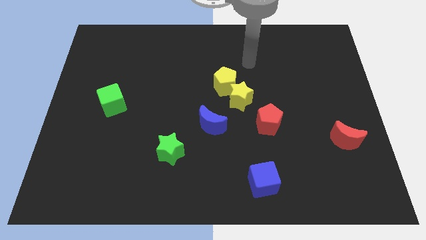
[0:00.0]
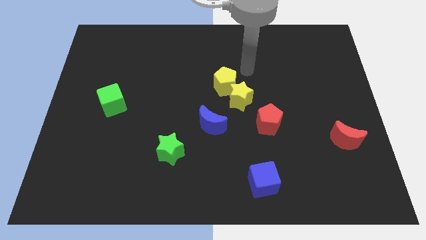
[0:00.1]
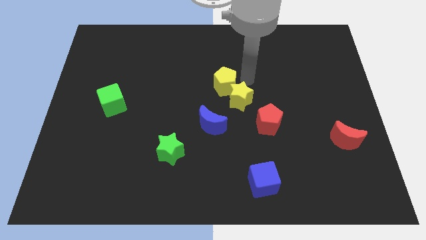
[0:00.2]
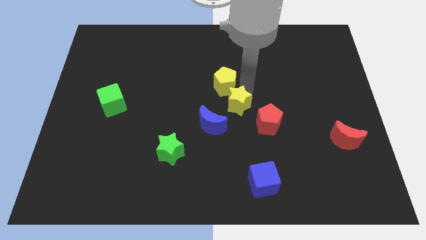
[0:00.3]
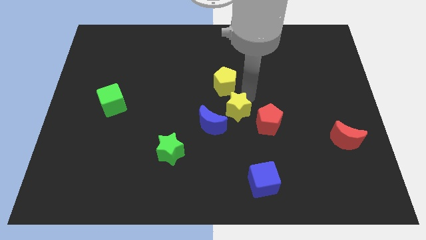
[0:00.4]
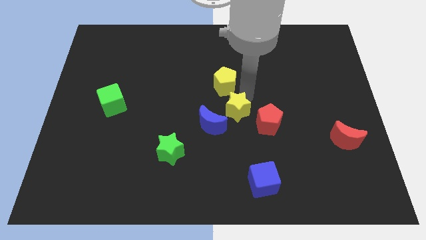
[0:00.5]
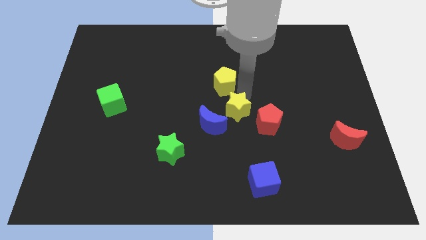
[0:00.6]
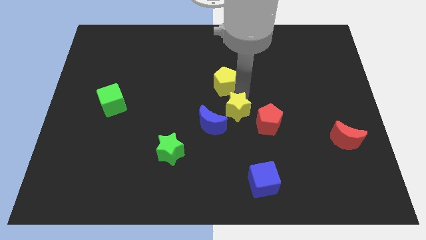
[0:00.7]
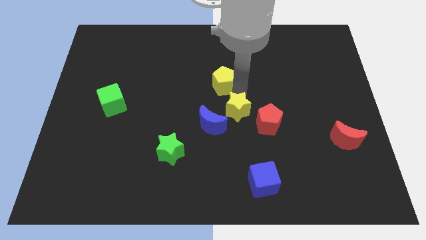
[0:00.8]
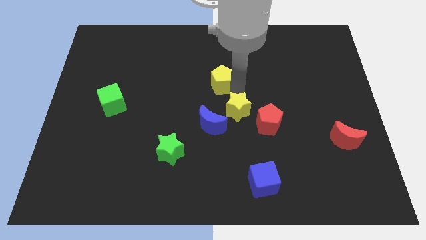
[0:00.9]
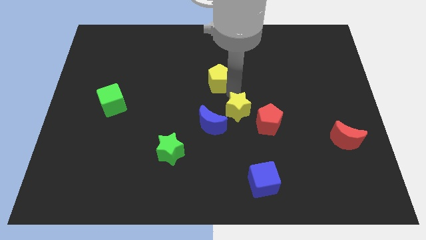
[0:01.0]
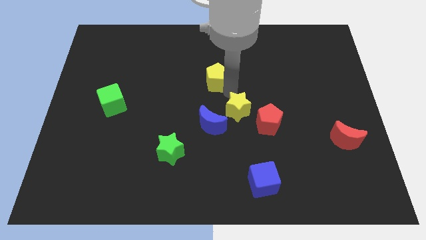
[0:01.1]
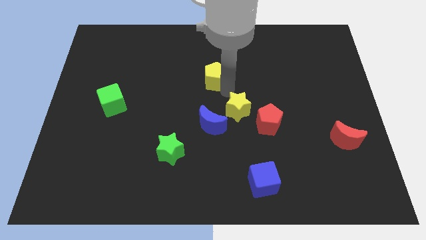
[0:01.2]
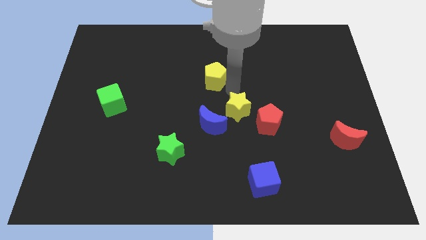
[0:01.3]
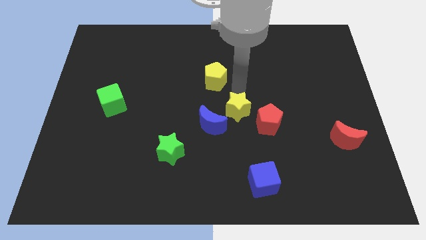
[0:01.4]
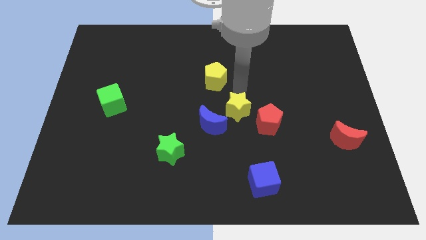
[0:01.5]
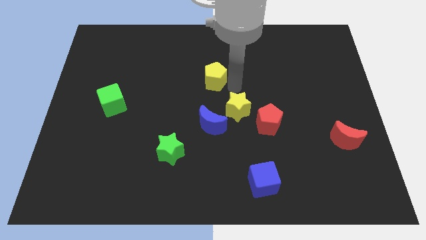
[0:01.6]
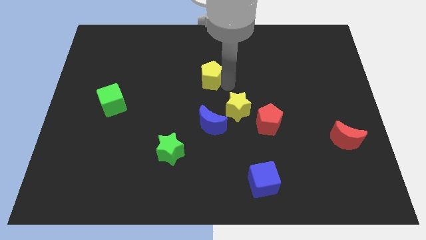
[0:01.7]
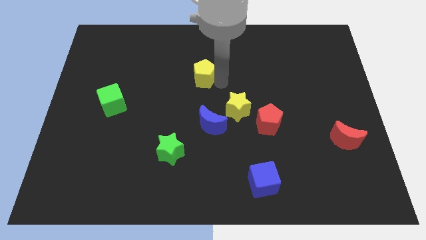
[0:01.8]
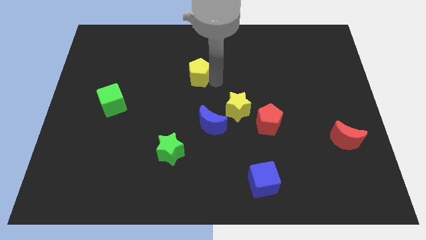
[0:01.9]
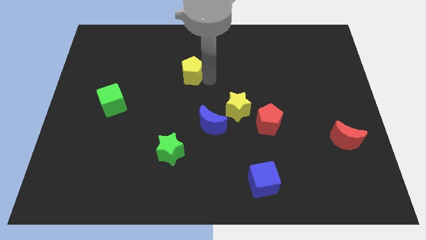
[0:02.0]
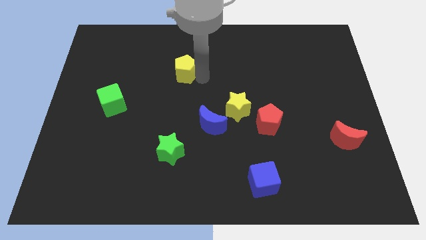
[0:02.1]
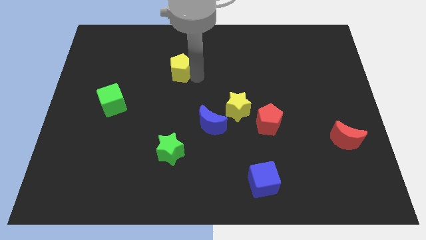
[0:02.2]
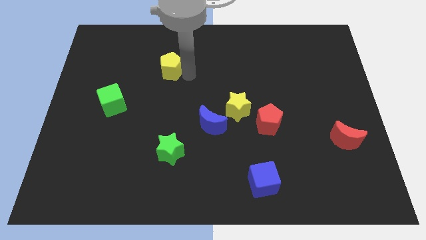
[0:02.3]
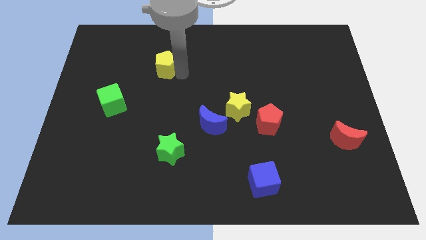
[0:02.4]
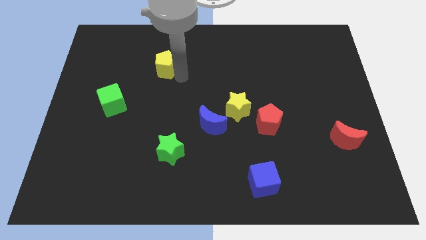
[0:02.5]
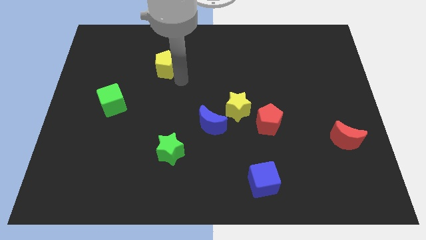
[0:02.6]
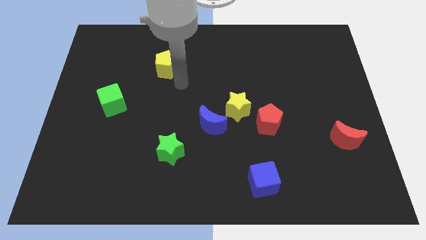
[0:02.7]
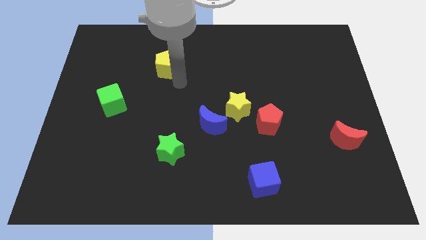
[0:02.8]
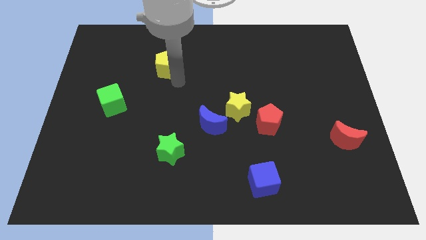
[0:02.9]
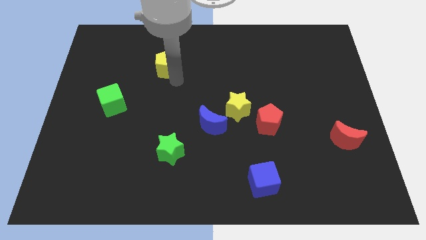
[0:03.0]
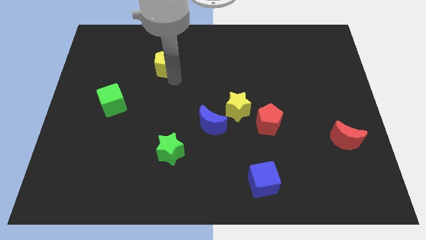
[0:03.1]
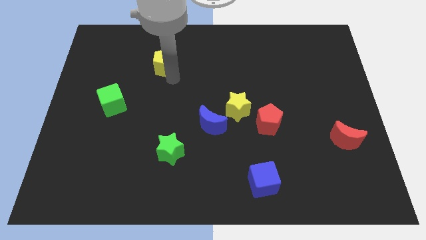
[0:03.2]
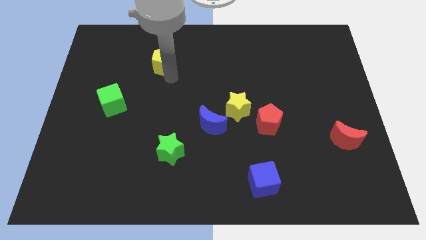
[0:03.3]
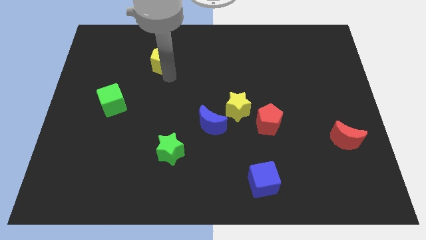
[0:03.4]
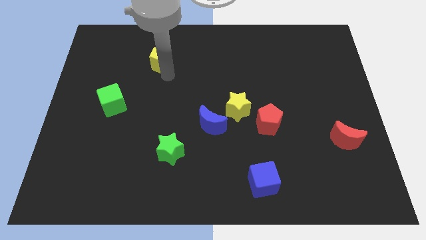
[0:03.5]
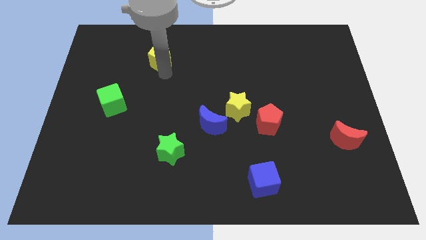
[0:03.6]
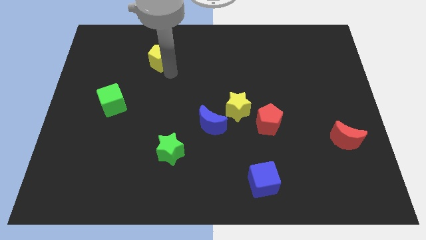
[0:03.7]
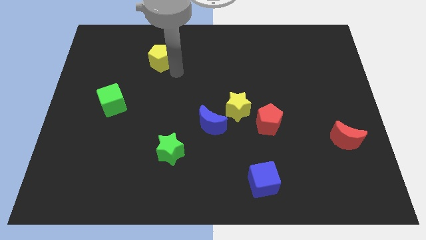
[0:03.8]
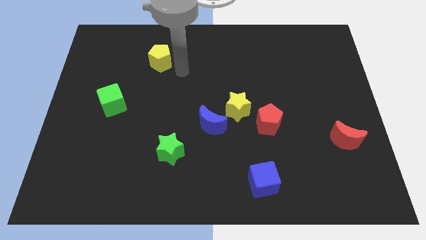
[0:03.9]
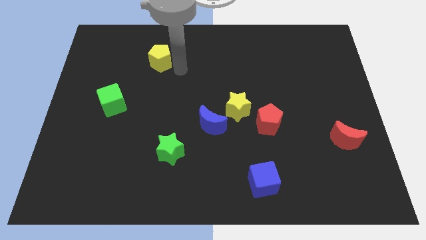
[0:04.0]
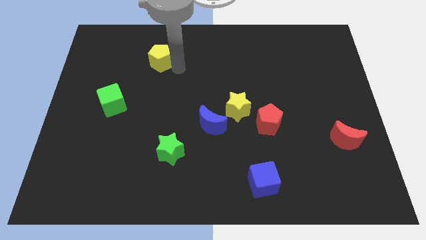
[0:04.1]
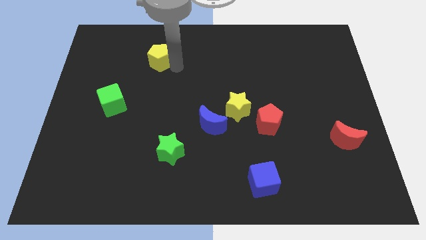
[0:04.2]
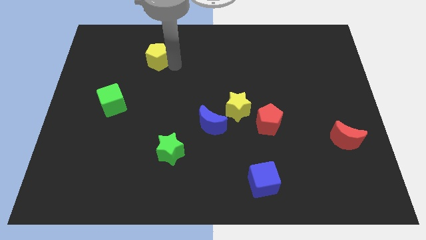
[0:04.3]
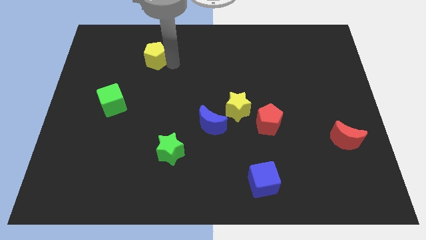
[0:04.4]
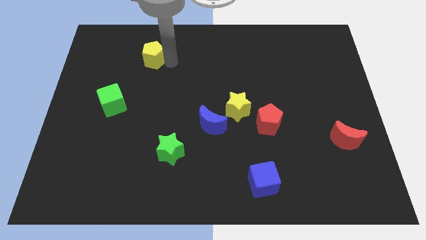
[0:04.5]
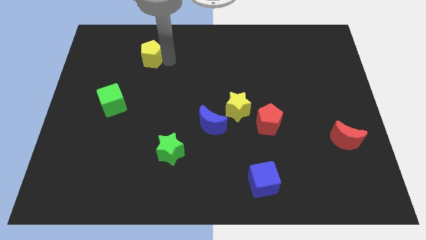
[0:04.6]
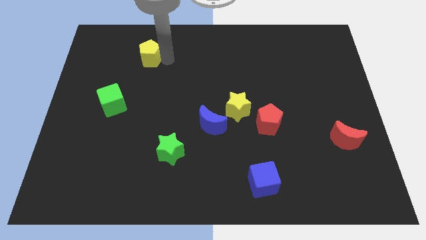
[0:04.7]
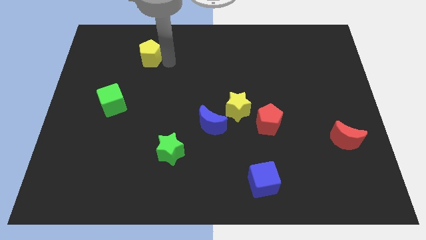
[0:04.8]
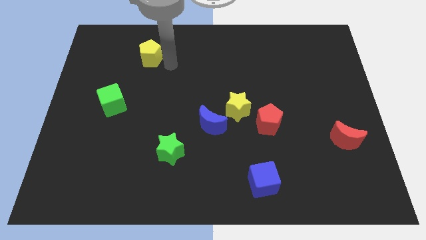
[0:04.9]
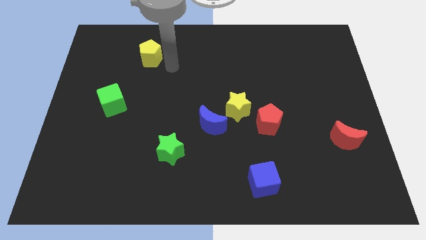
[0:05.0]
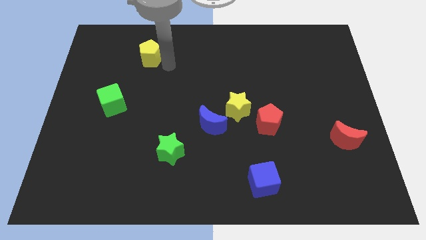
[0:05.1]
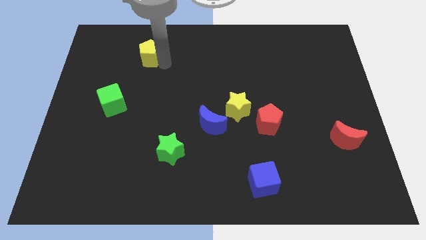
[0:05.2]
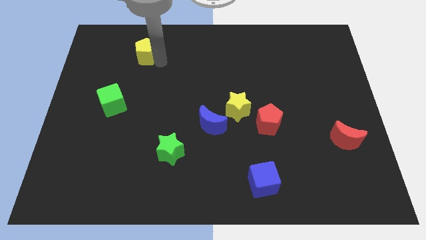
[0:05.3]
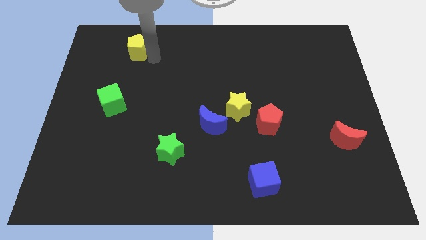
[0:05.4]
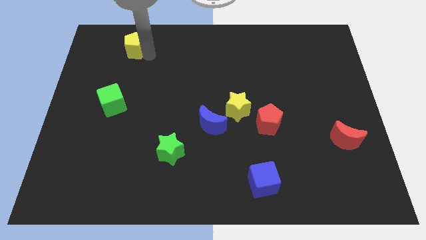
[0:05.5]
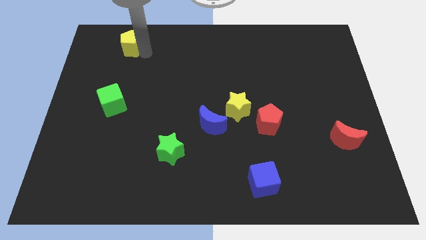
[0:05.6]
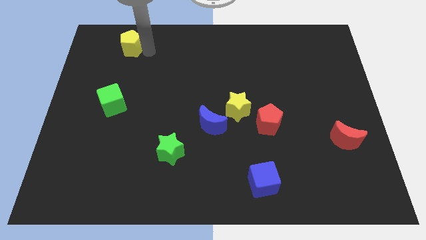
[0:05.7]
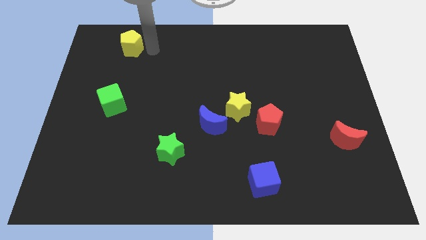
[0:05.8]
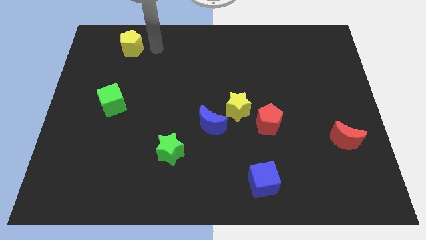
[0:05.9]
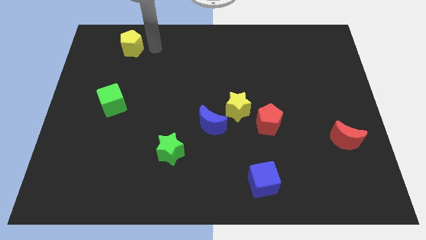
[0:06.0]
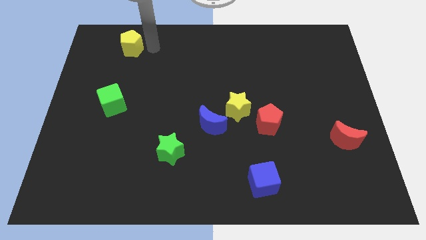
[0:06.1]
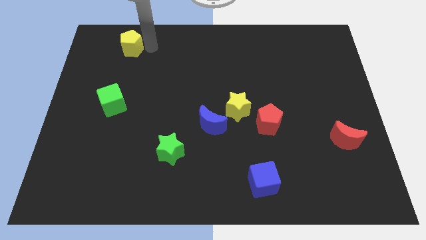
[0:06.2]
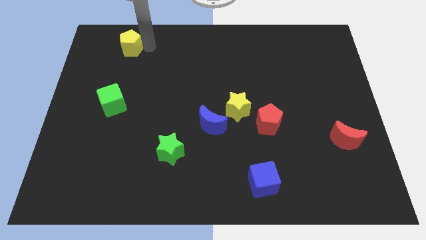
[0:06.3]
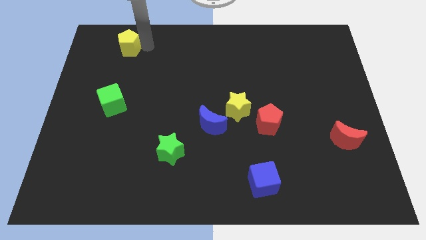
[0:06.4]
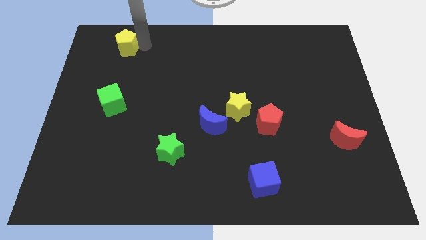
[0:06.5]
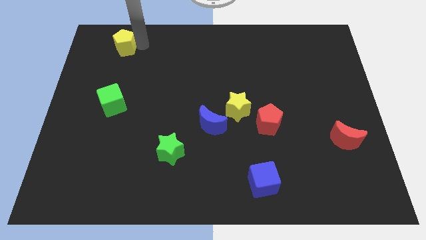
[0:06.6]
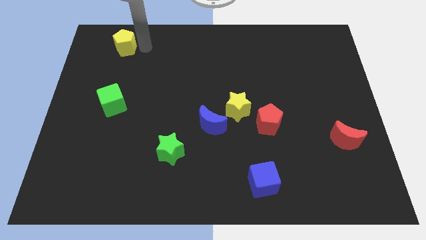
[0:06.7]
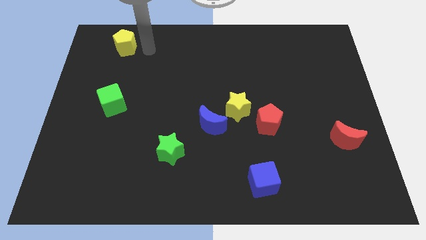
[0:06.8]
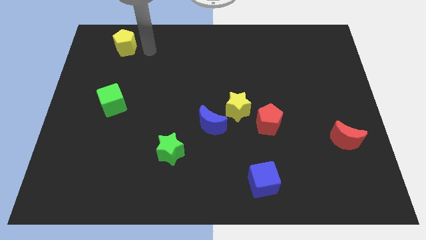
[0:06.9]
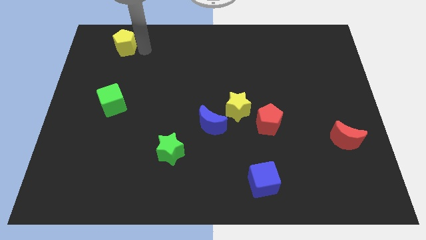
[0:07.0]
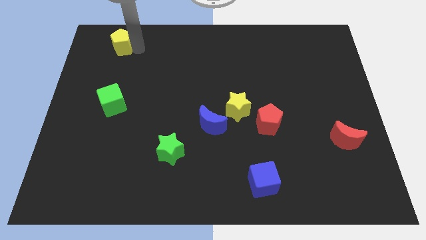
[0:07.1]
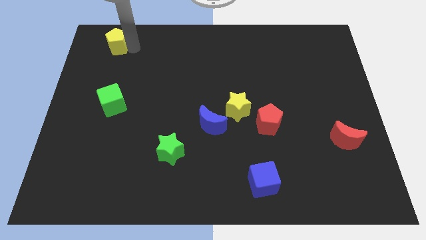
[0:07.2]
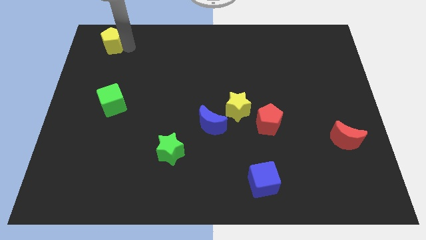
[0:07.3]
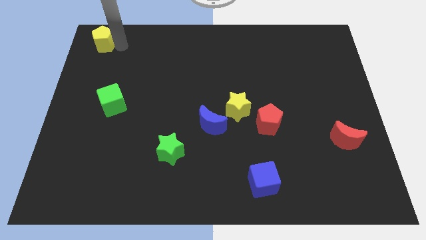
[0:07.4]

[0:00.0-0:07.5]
slide the yellow pentagon to the top left
